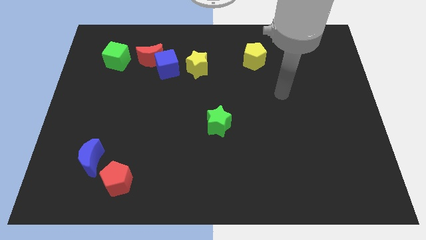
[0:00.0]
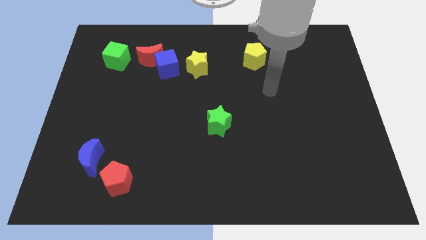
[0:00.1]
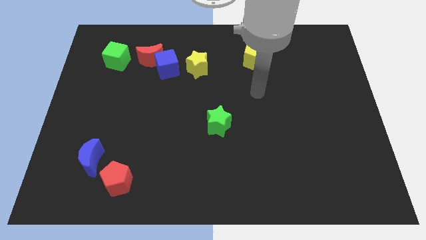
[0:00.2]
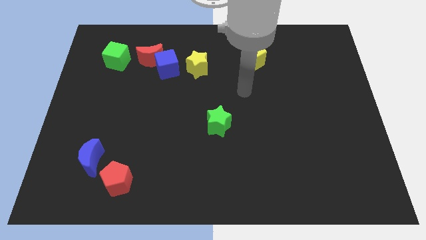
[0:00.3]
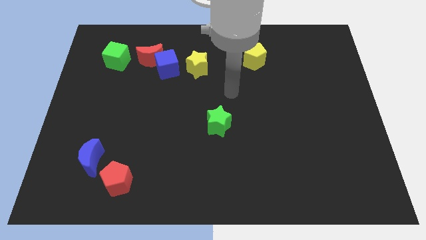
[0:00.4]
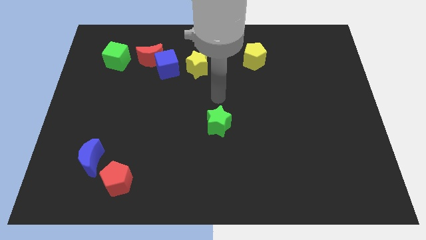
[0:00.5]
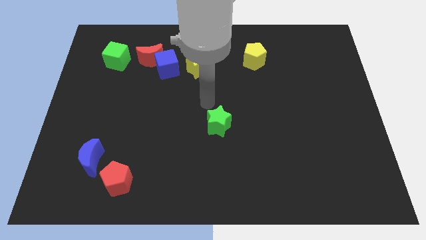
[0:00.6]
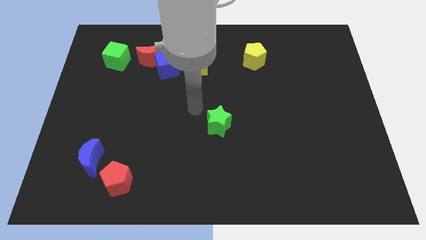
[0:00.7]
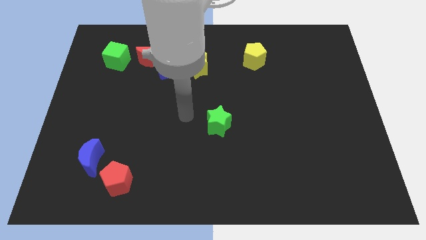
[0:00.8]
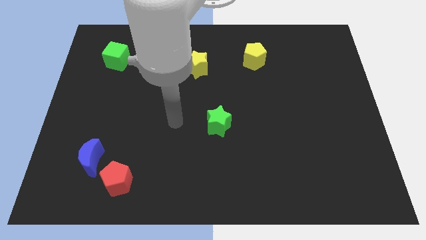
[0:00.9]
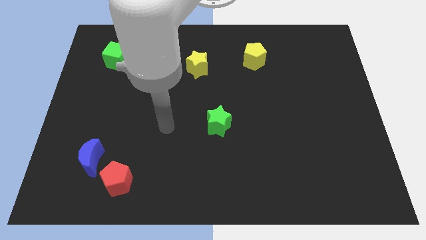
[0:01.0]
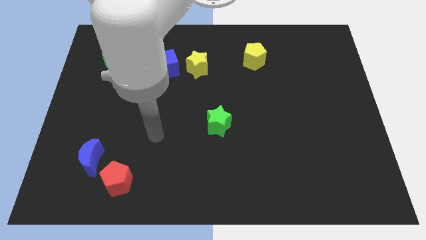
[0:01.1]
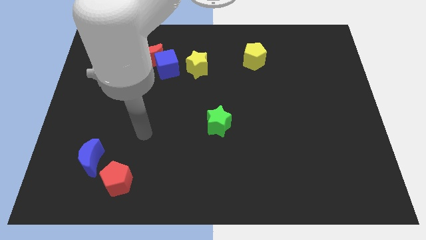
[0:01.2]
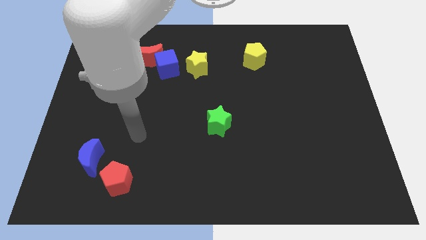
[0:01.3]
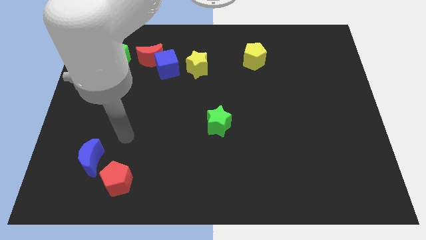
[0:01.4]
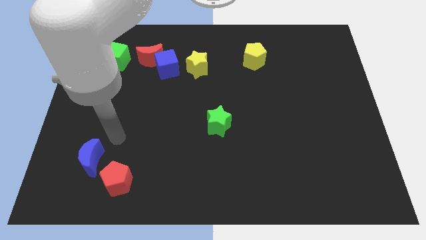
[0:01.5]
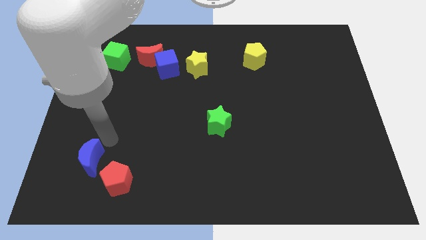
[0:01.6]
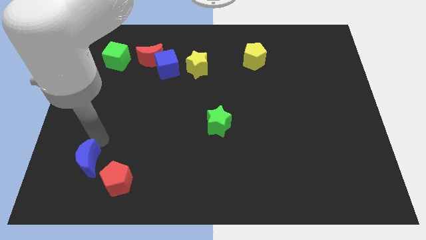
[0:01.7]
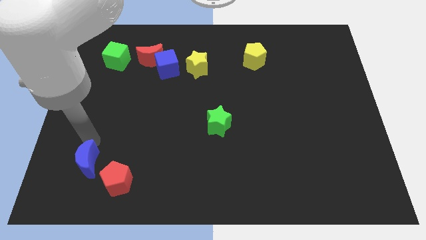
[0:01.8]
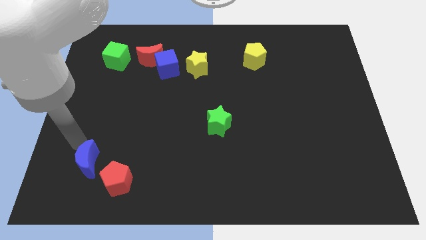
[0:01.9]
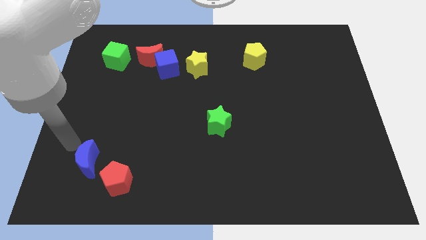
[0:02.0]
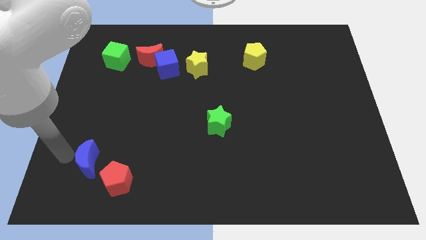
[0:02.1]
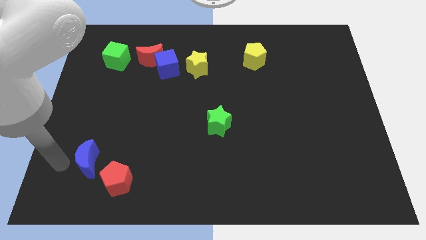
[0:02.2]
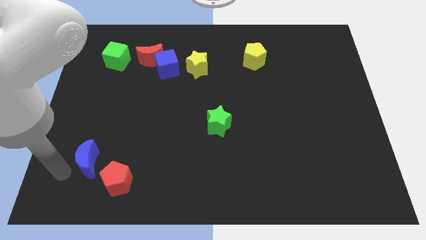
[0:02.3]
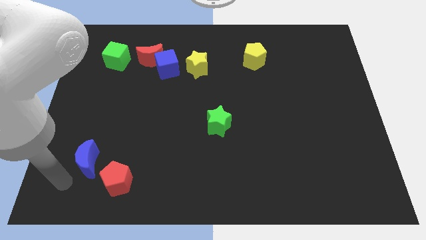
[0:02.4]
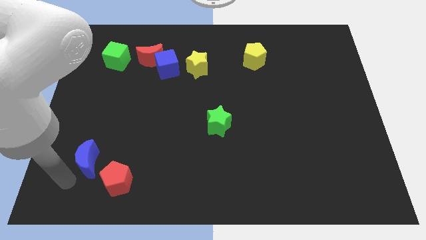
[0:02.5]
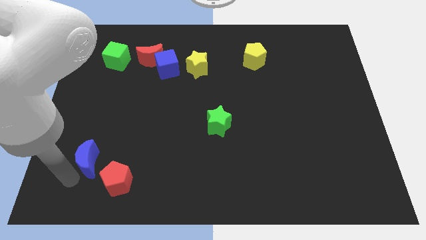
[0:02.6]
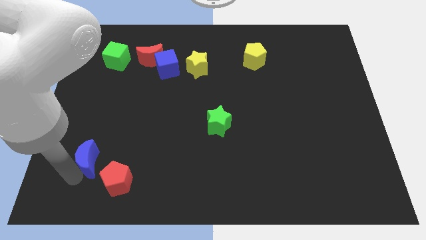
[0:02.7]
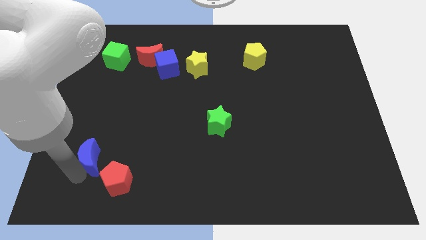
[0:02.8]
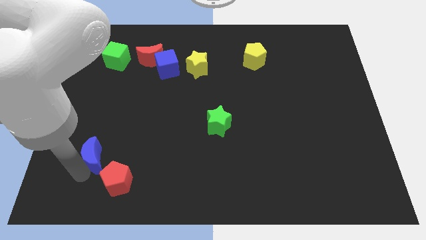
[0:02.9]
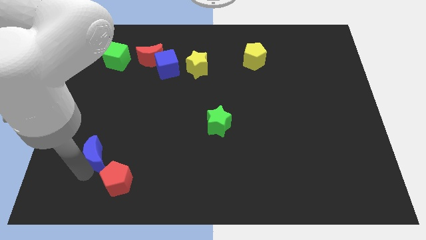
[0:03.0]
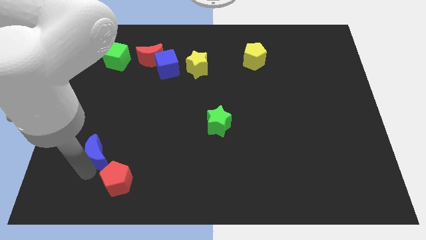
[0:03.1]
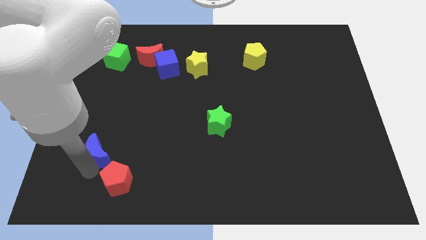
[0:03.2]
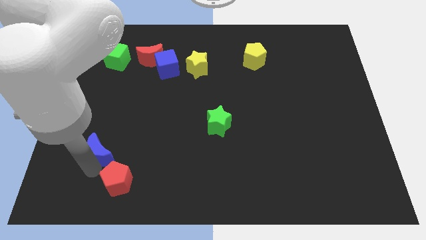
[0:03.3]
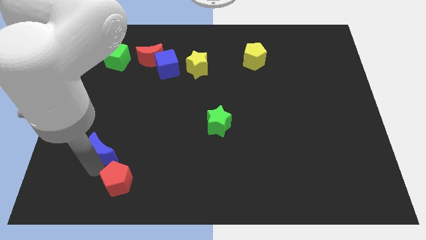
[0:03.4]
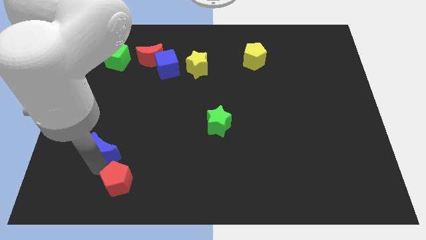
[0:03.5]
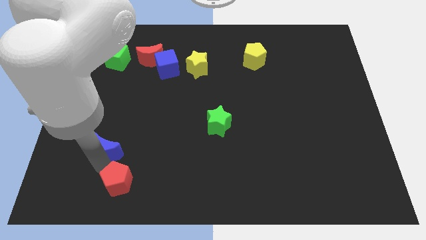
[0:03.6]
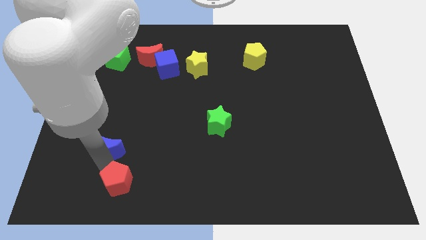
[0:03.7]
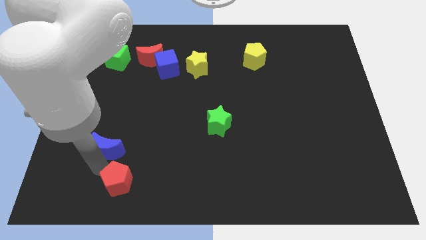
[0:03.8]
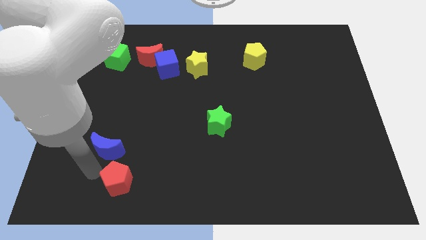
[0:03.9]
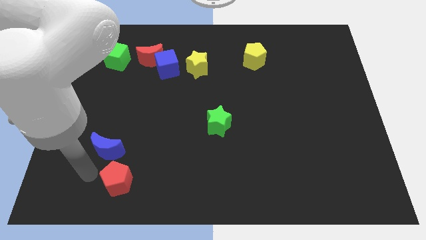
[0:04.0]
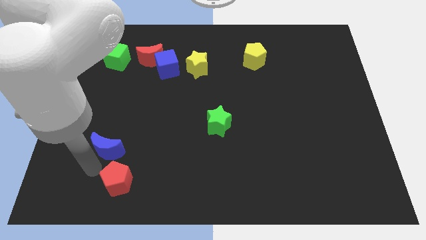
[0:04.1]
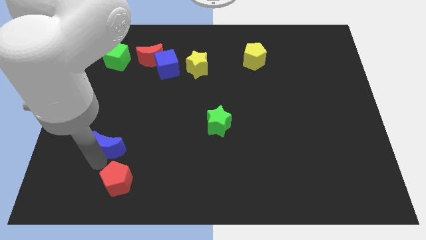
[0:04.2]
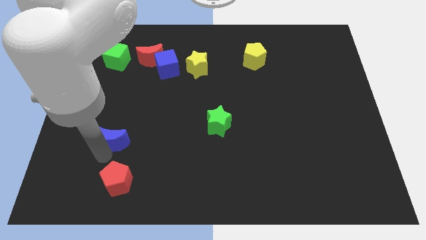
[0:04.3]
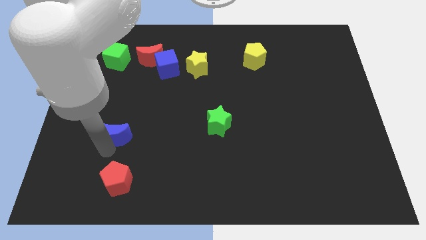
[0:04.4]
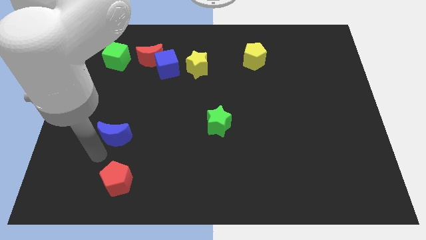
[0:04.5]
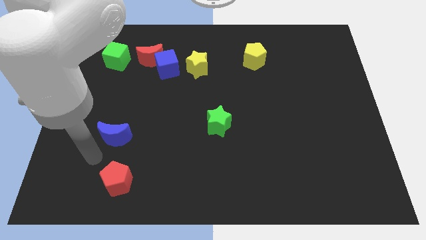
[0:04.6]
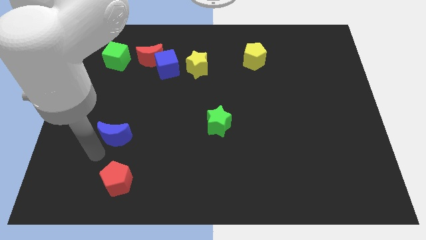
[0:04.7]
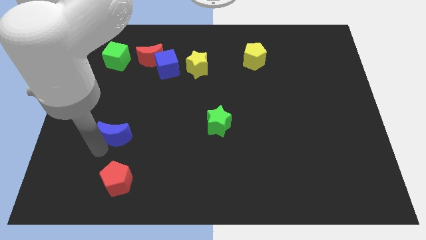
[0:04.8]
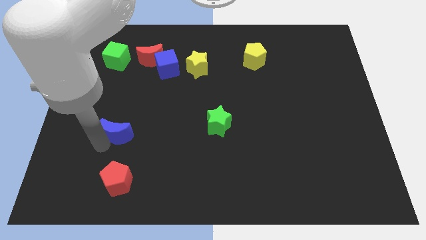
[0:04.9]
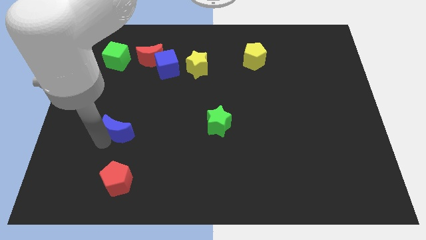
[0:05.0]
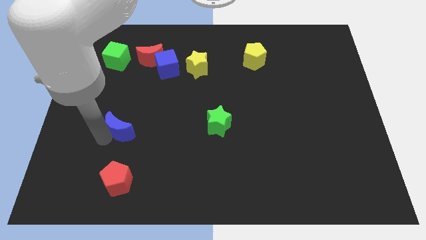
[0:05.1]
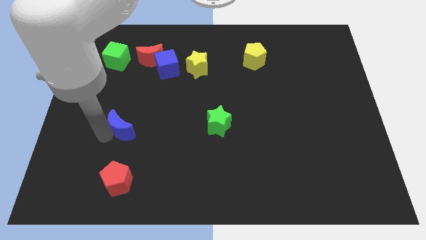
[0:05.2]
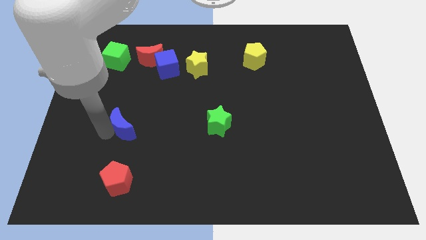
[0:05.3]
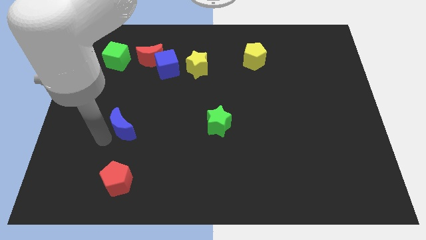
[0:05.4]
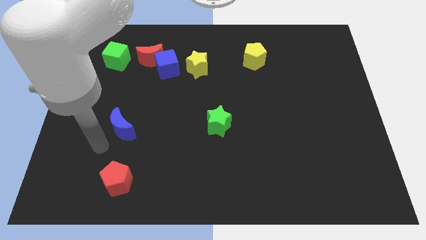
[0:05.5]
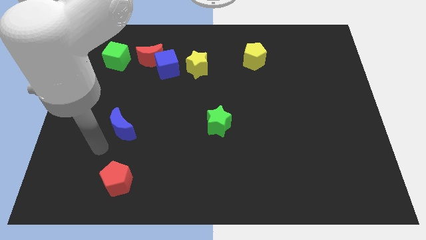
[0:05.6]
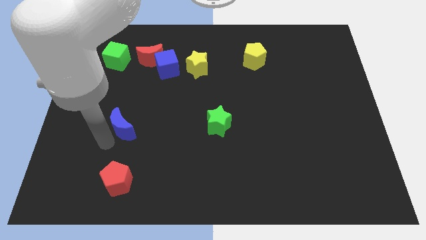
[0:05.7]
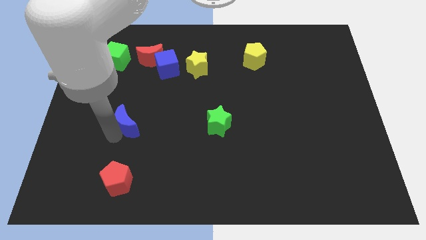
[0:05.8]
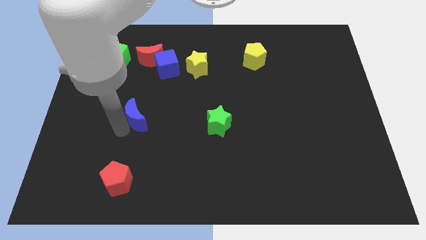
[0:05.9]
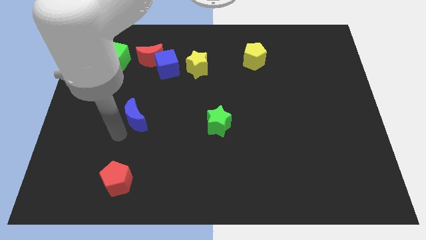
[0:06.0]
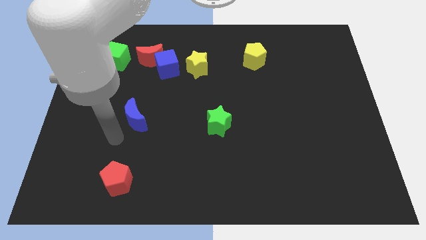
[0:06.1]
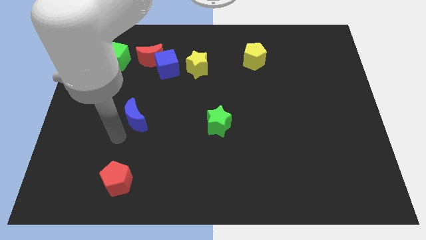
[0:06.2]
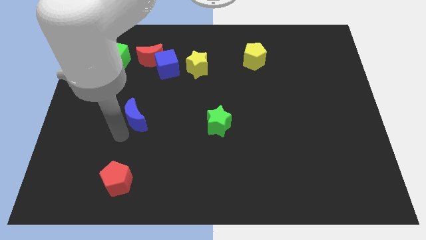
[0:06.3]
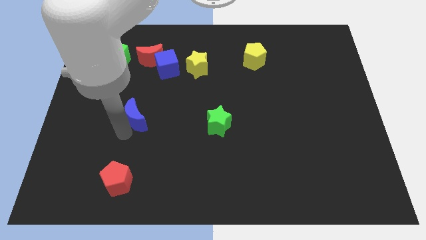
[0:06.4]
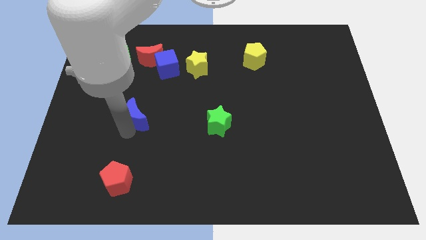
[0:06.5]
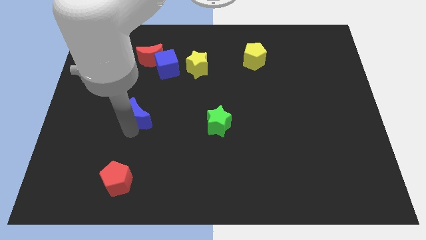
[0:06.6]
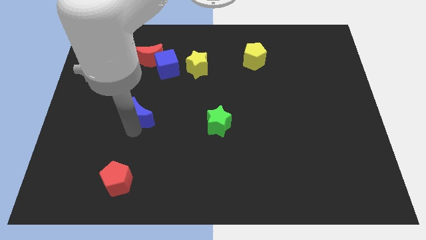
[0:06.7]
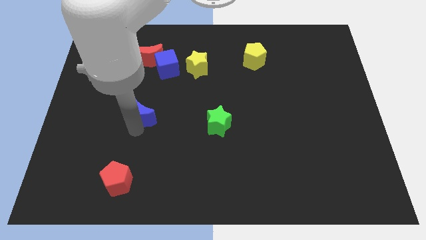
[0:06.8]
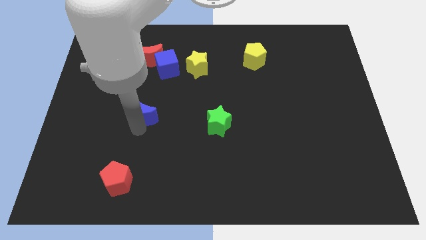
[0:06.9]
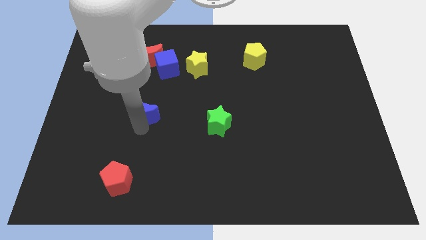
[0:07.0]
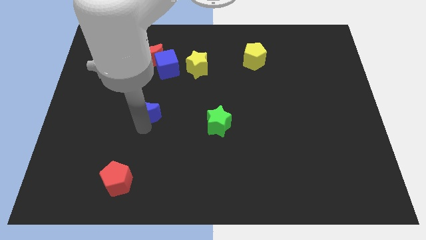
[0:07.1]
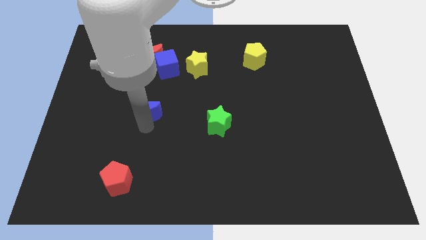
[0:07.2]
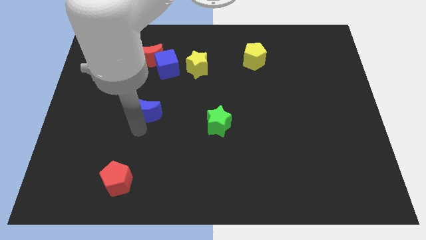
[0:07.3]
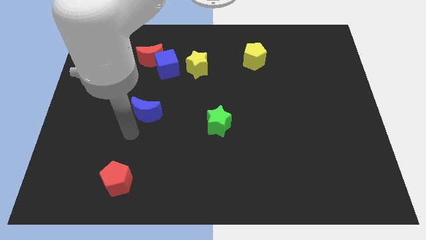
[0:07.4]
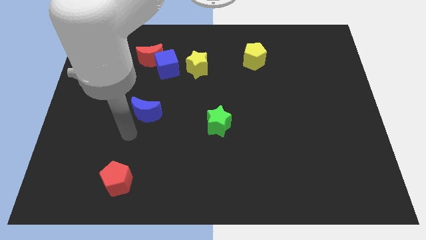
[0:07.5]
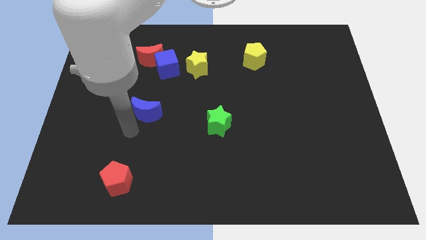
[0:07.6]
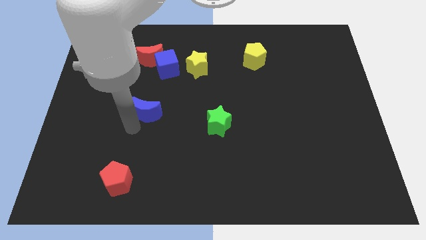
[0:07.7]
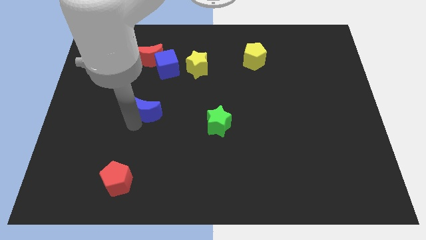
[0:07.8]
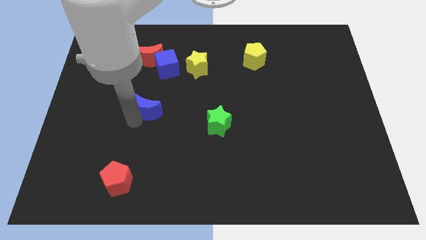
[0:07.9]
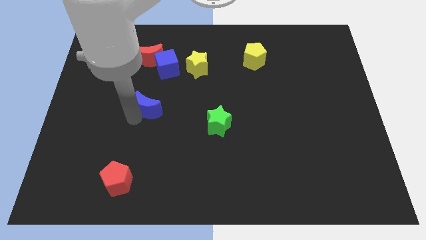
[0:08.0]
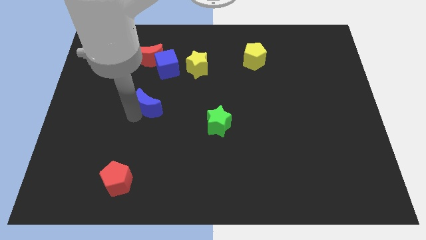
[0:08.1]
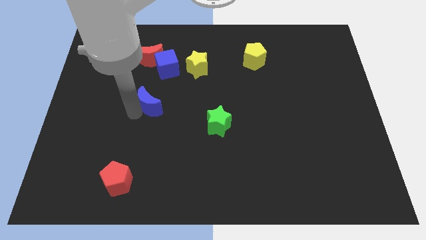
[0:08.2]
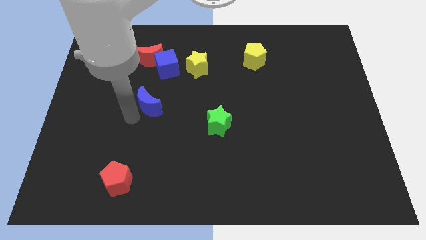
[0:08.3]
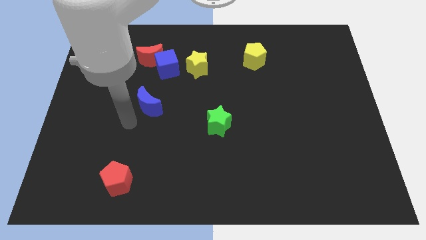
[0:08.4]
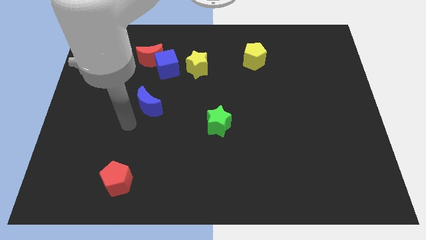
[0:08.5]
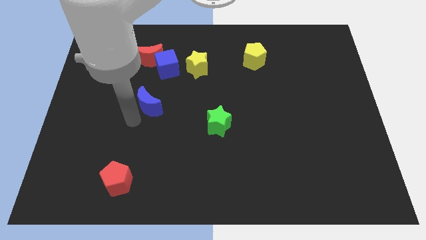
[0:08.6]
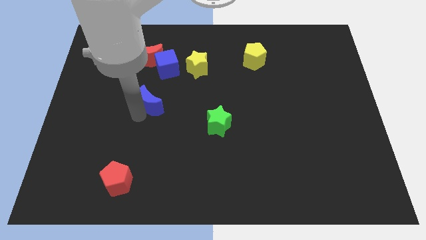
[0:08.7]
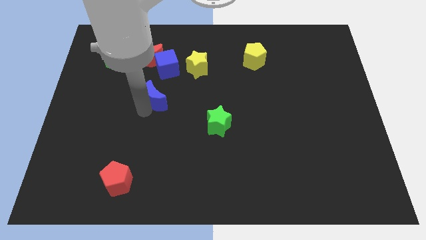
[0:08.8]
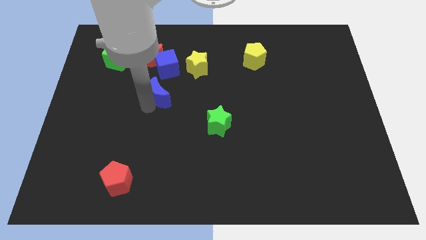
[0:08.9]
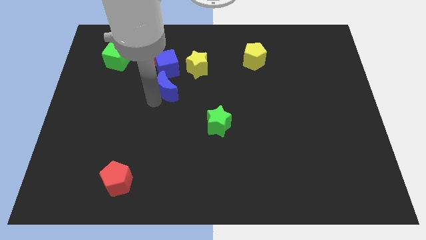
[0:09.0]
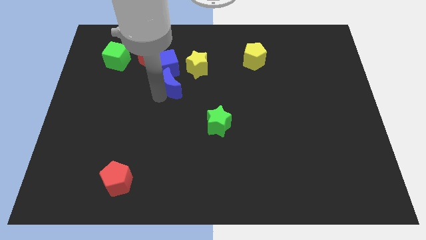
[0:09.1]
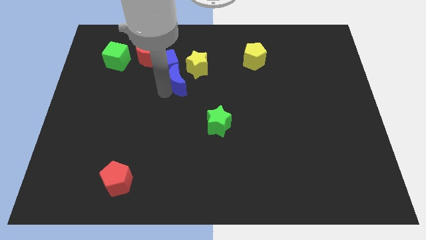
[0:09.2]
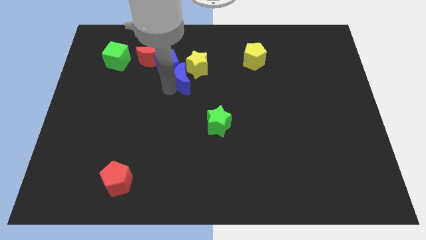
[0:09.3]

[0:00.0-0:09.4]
slide the blue moon close to the yellow star
